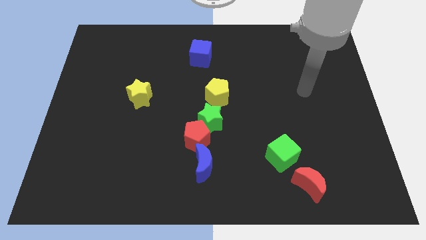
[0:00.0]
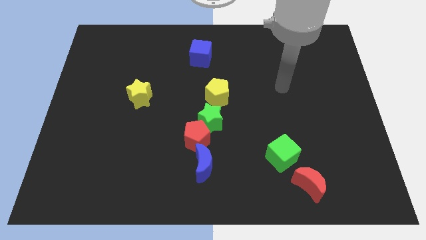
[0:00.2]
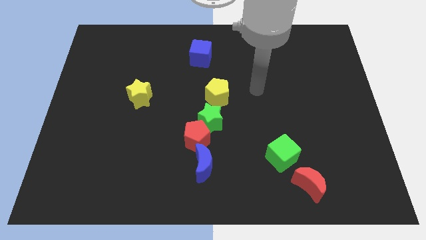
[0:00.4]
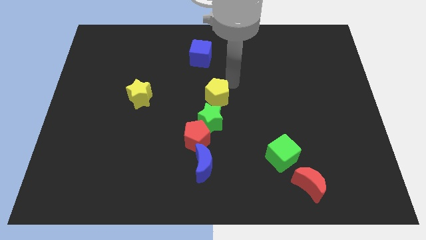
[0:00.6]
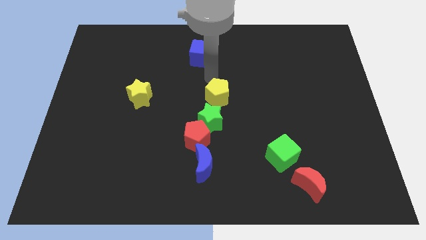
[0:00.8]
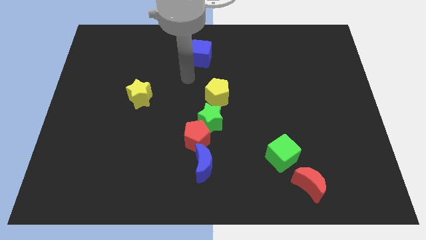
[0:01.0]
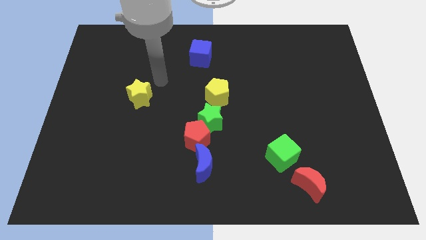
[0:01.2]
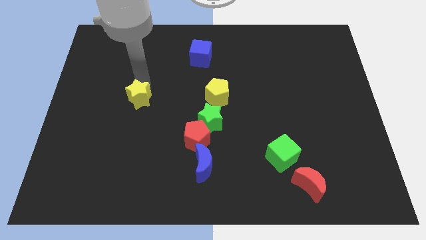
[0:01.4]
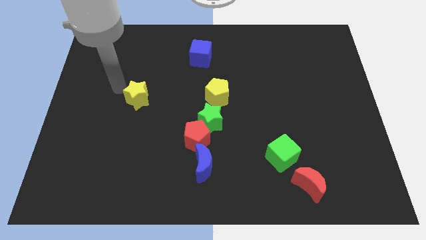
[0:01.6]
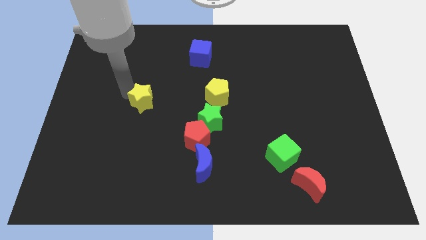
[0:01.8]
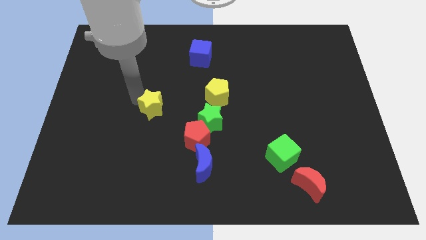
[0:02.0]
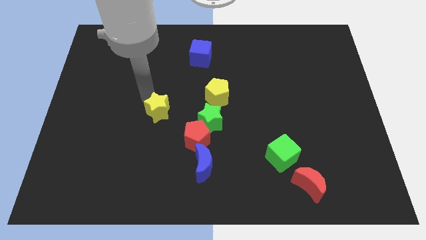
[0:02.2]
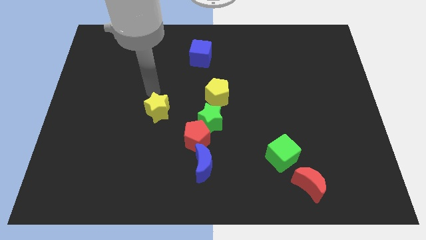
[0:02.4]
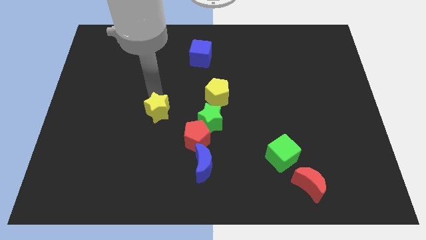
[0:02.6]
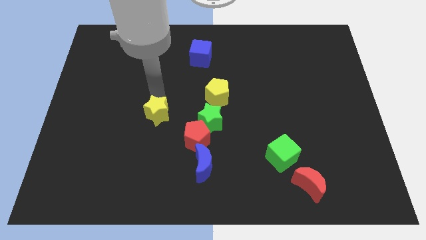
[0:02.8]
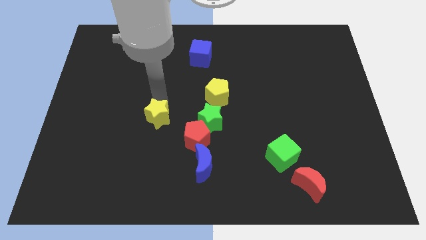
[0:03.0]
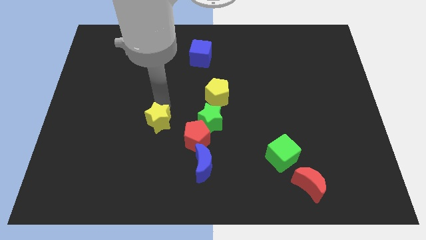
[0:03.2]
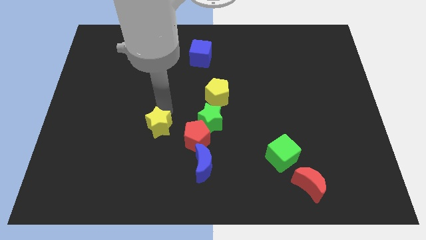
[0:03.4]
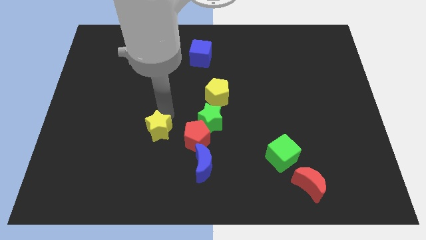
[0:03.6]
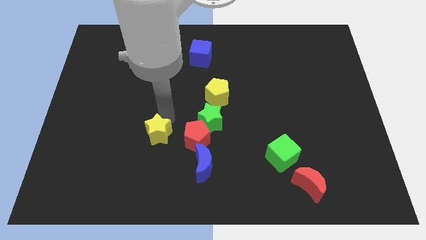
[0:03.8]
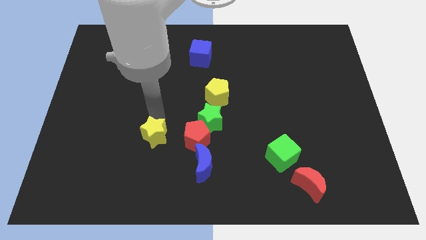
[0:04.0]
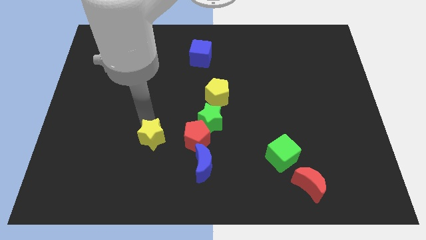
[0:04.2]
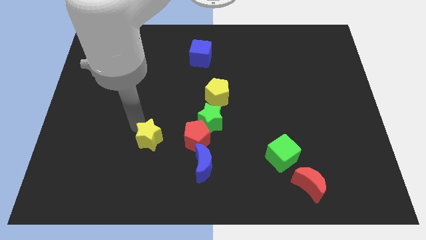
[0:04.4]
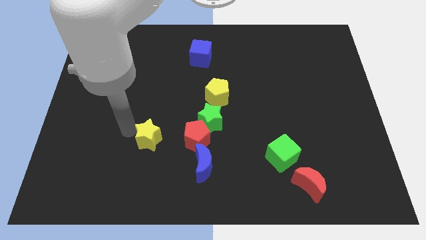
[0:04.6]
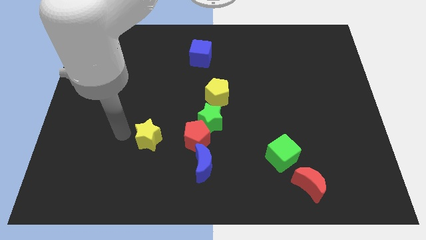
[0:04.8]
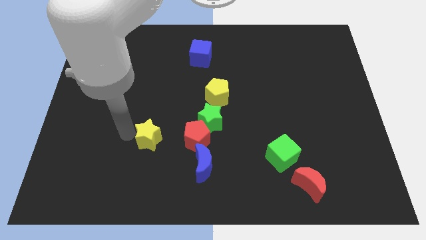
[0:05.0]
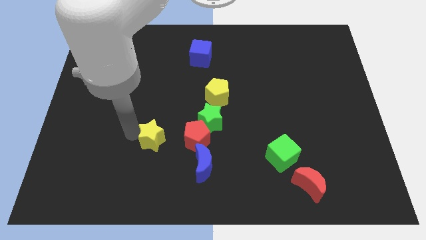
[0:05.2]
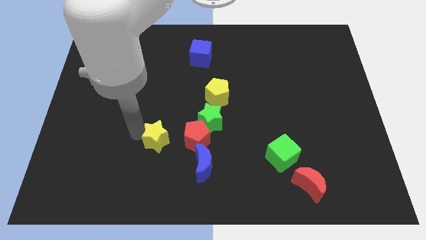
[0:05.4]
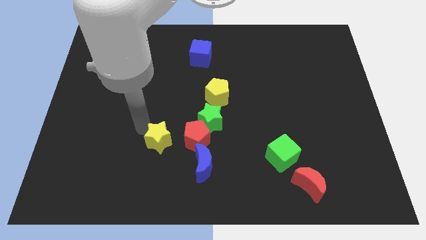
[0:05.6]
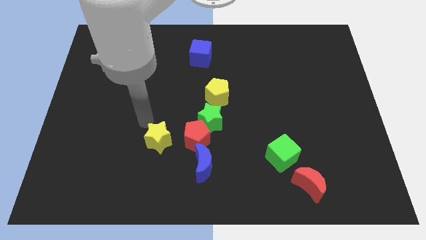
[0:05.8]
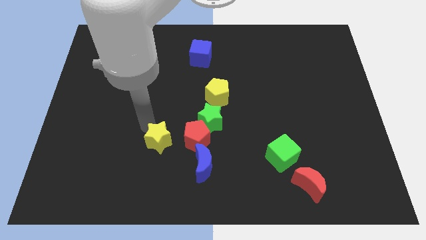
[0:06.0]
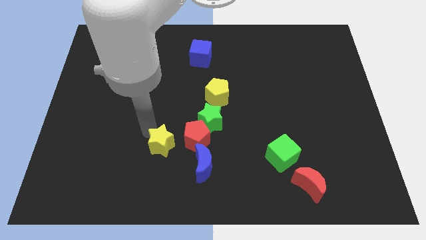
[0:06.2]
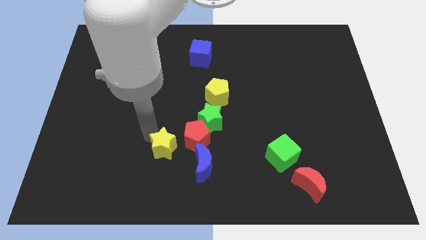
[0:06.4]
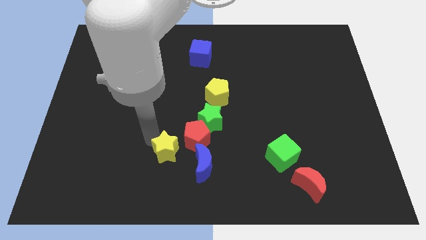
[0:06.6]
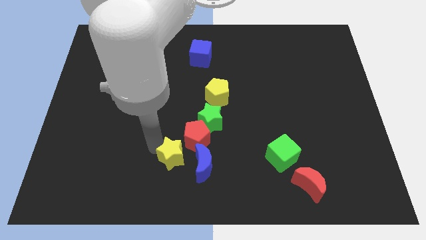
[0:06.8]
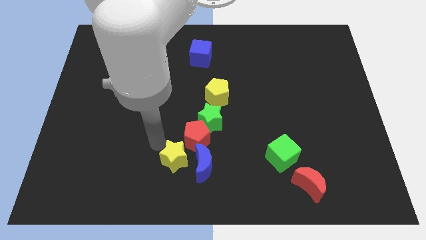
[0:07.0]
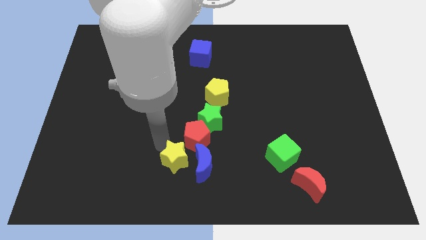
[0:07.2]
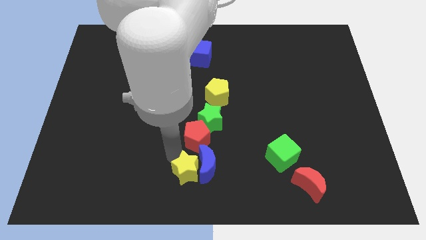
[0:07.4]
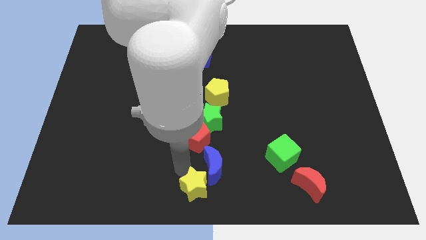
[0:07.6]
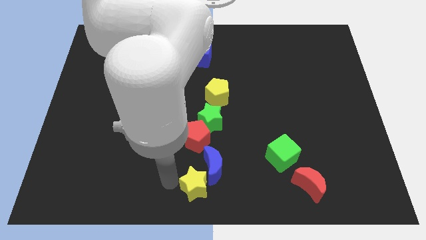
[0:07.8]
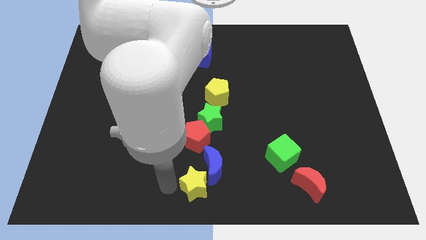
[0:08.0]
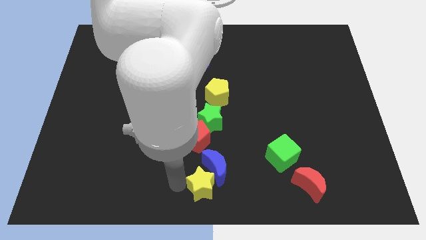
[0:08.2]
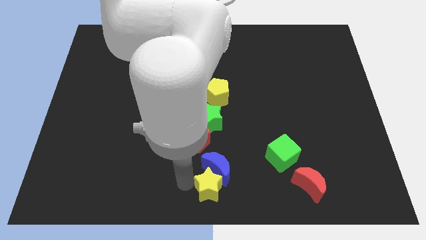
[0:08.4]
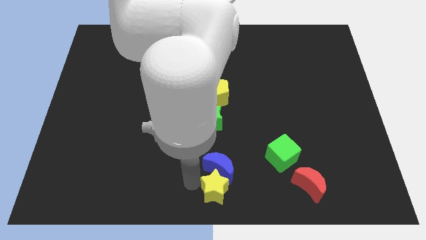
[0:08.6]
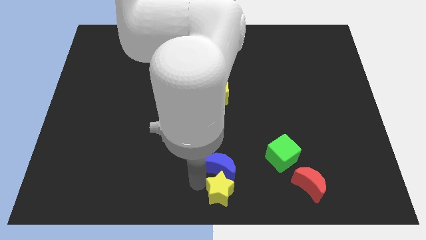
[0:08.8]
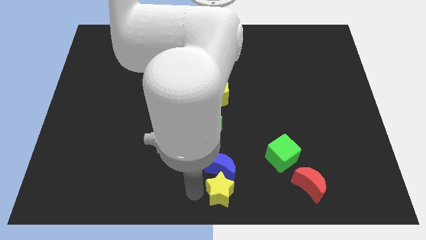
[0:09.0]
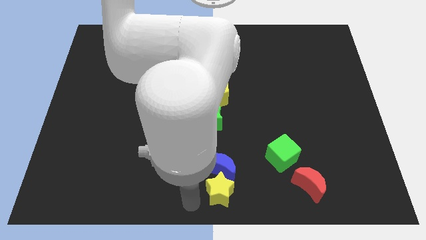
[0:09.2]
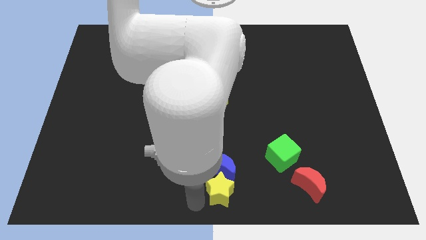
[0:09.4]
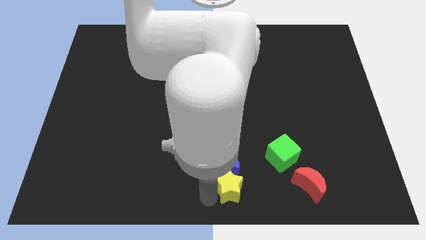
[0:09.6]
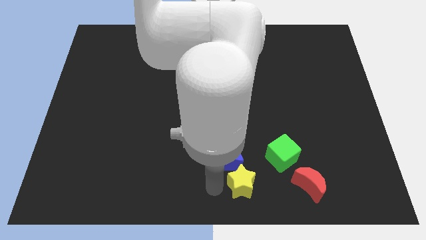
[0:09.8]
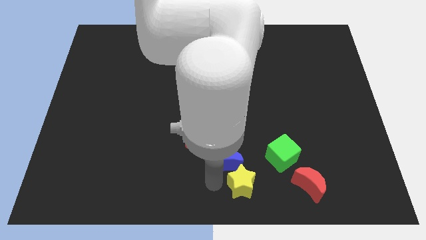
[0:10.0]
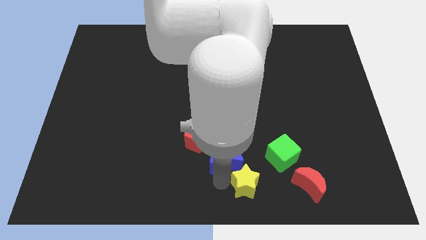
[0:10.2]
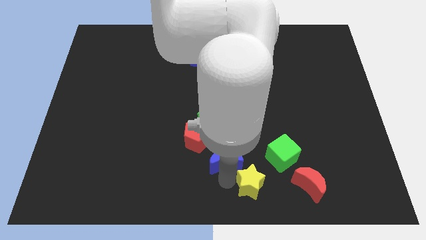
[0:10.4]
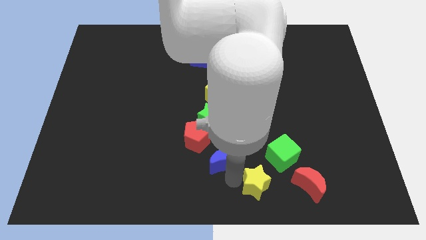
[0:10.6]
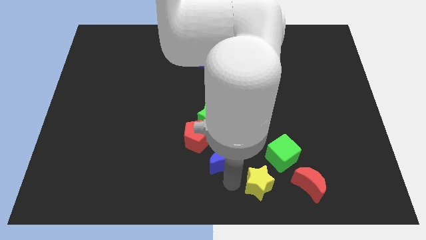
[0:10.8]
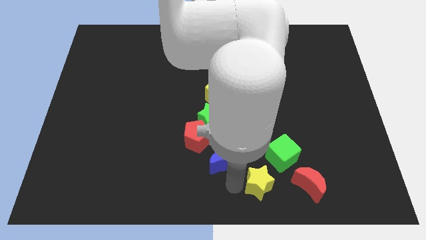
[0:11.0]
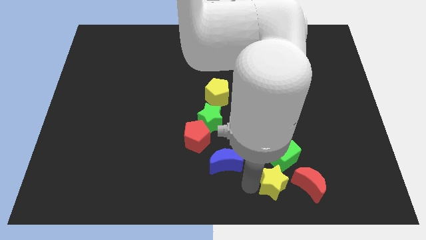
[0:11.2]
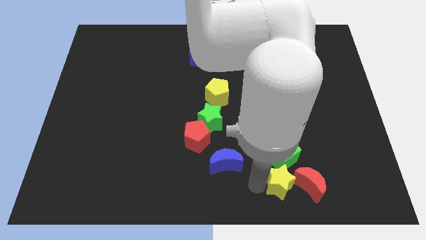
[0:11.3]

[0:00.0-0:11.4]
put the yellow star close to the red moon

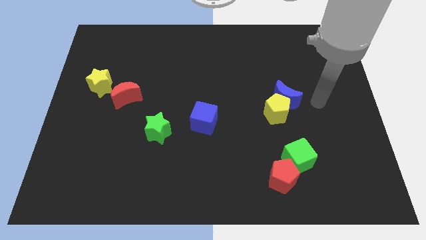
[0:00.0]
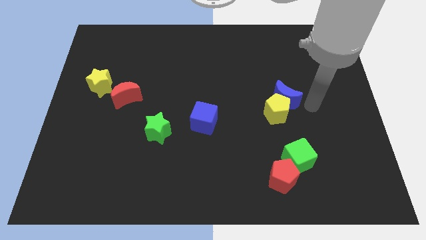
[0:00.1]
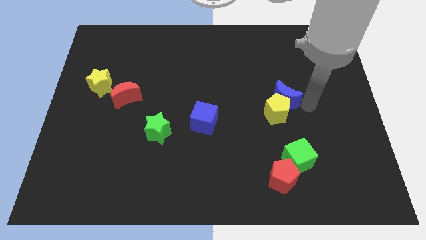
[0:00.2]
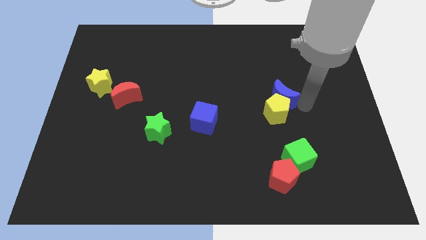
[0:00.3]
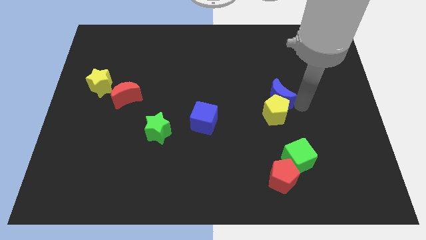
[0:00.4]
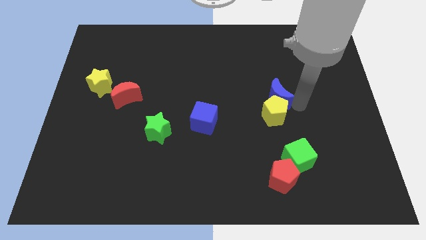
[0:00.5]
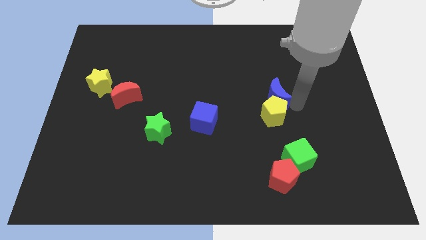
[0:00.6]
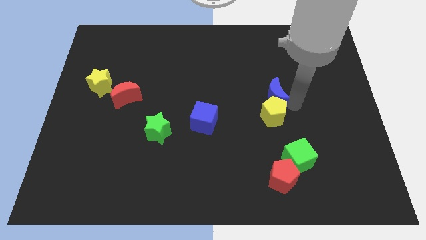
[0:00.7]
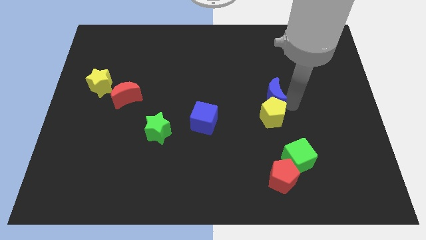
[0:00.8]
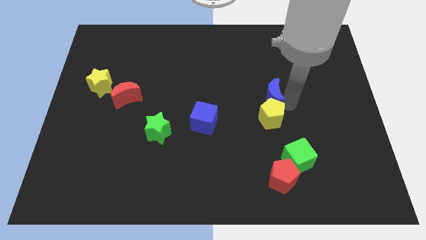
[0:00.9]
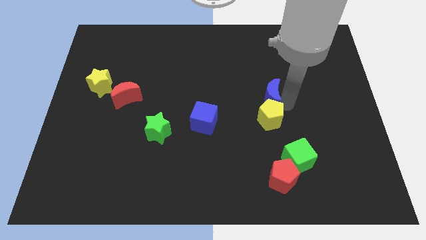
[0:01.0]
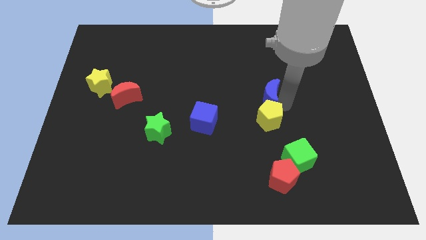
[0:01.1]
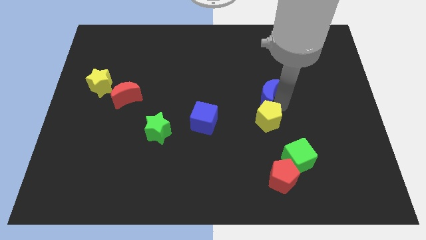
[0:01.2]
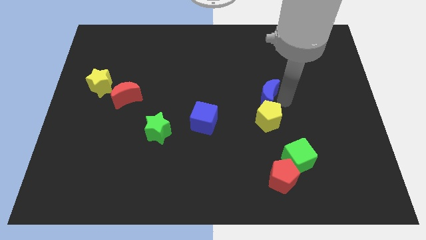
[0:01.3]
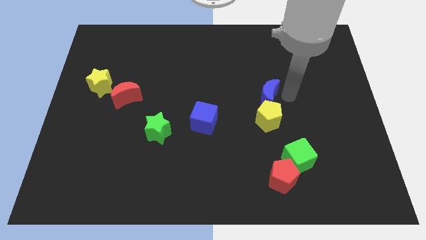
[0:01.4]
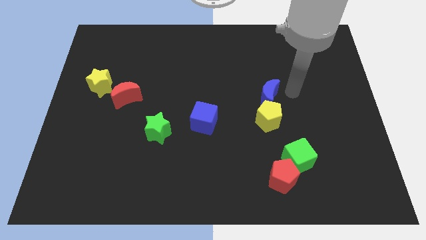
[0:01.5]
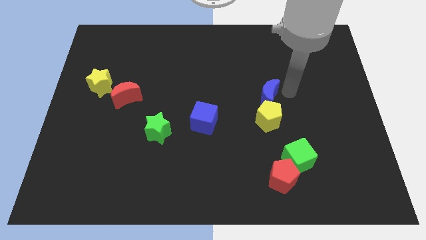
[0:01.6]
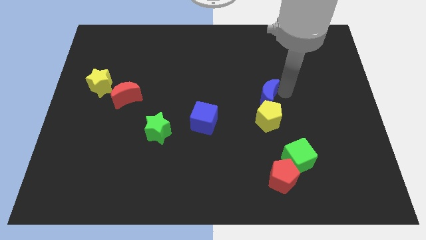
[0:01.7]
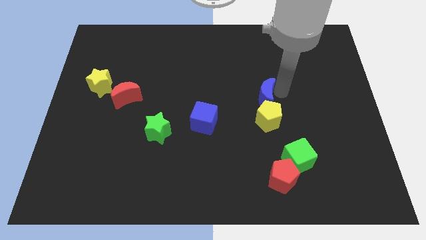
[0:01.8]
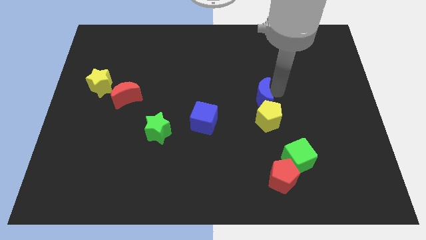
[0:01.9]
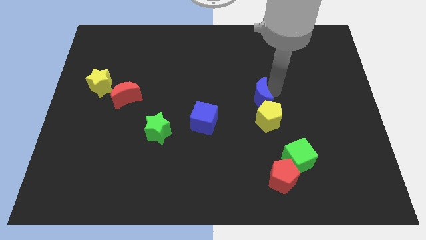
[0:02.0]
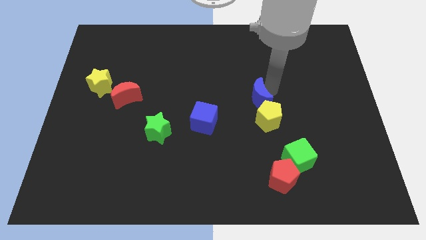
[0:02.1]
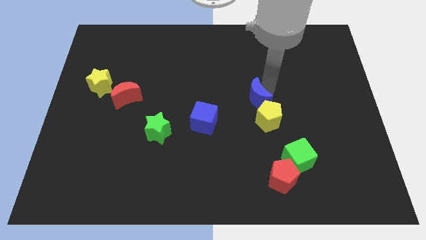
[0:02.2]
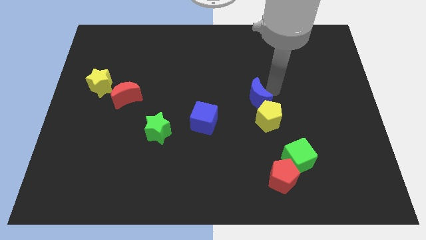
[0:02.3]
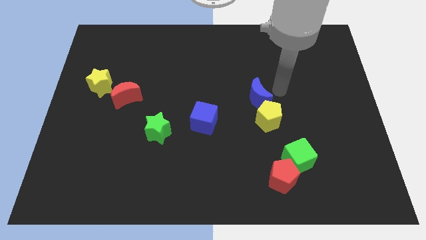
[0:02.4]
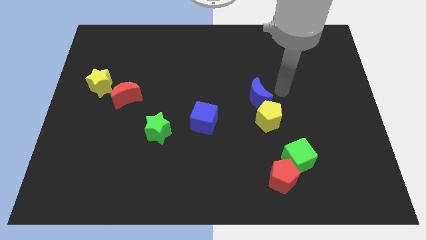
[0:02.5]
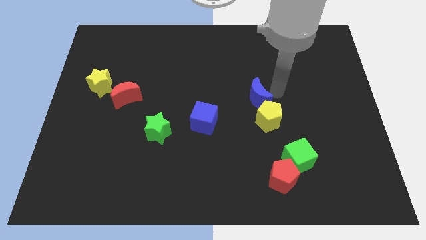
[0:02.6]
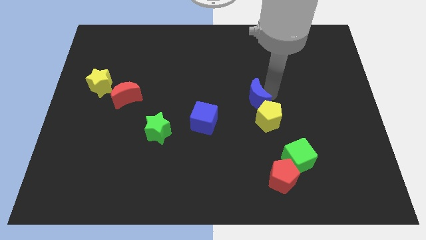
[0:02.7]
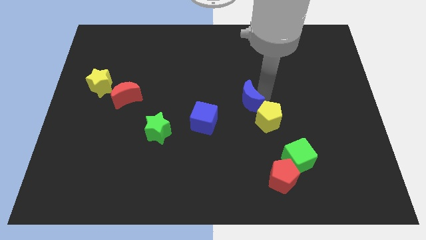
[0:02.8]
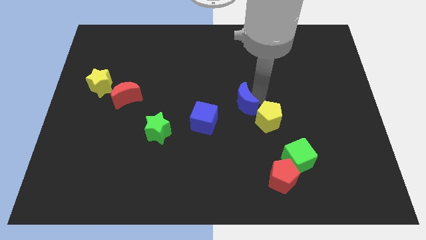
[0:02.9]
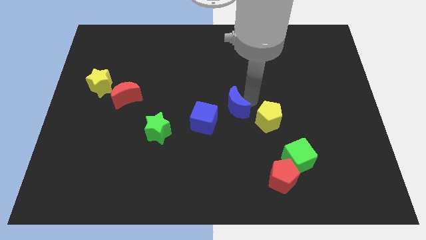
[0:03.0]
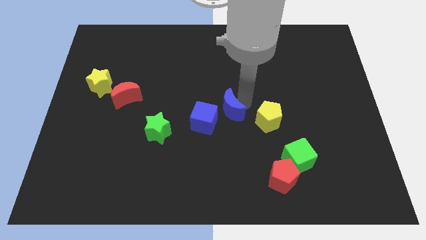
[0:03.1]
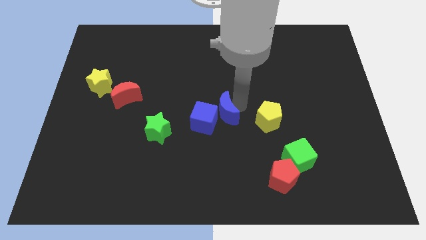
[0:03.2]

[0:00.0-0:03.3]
move the blue moon towards the blue cube
